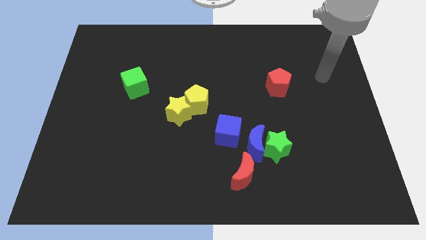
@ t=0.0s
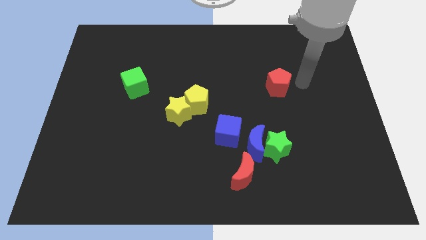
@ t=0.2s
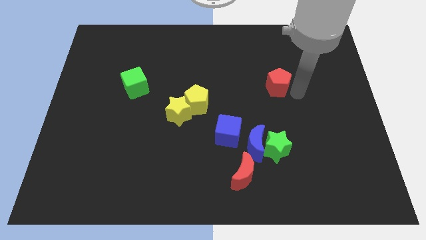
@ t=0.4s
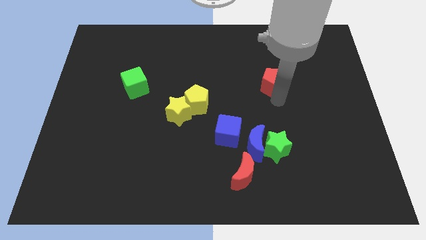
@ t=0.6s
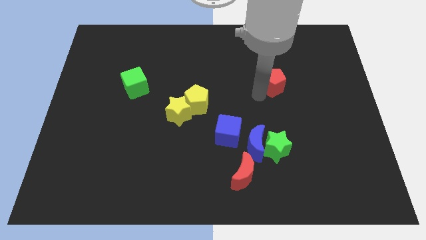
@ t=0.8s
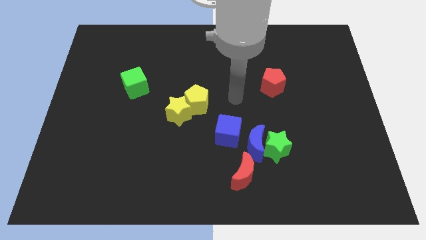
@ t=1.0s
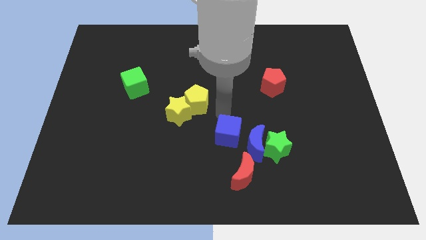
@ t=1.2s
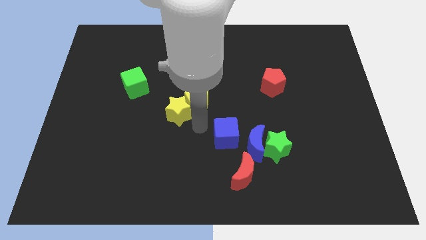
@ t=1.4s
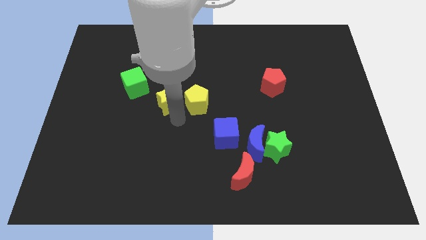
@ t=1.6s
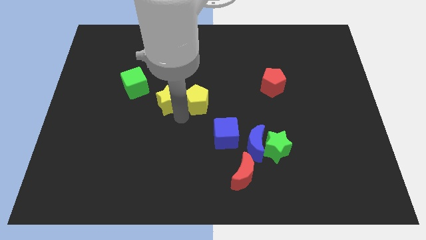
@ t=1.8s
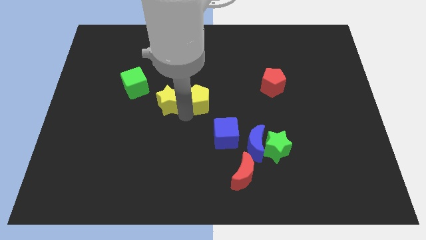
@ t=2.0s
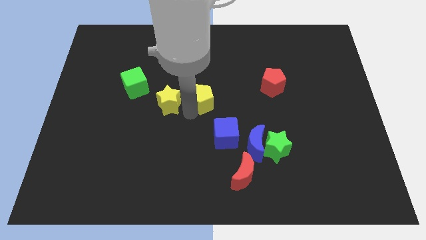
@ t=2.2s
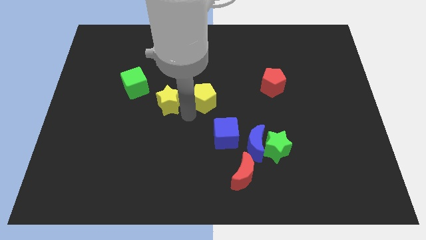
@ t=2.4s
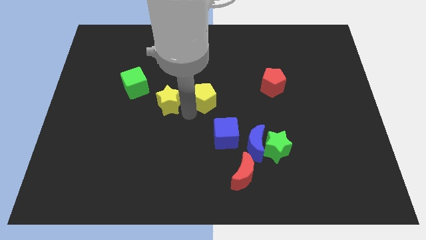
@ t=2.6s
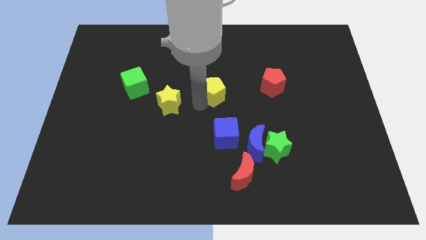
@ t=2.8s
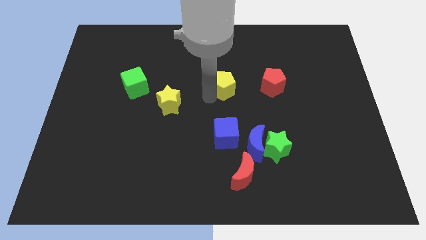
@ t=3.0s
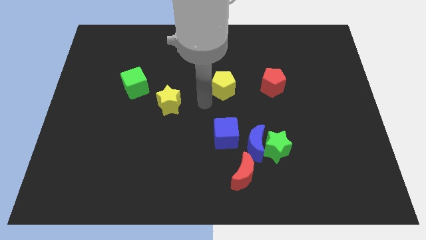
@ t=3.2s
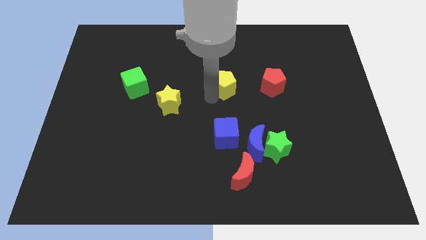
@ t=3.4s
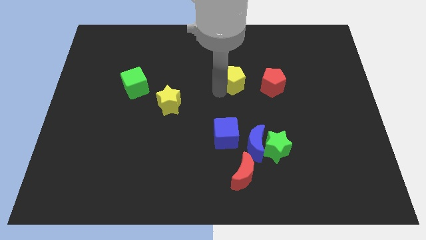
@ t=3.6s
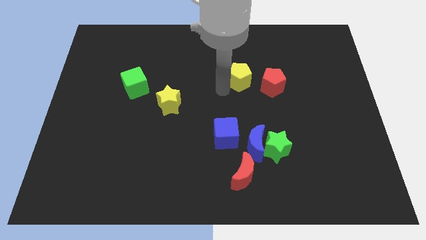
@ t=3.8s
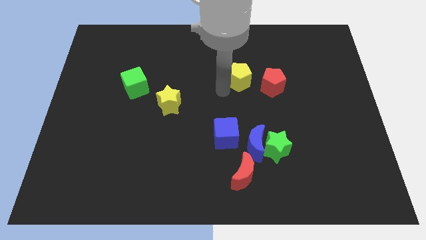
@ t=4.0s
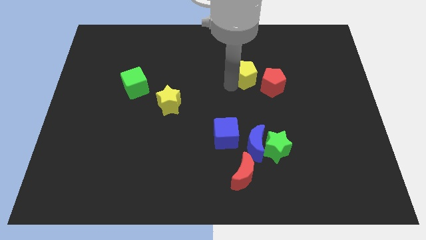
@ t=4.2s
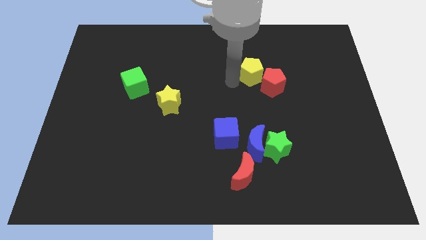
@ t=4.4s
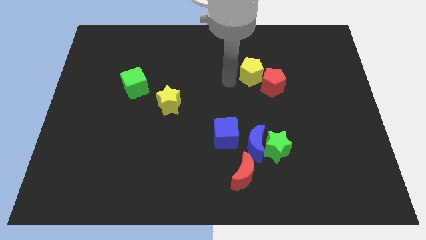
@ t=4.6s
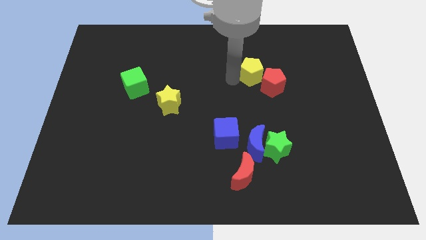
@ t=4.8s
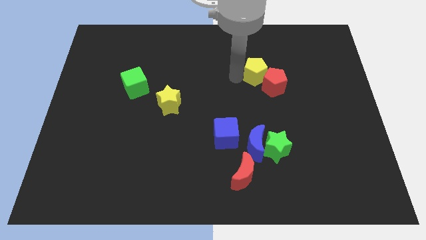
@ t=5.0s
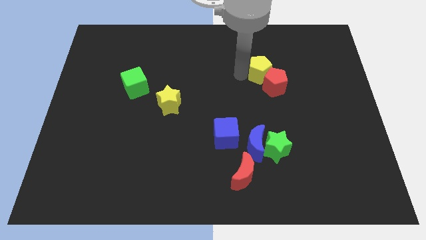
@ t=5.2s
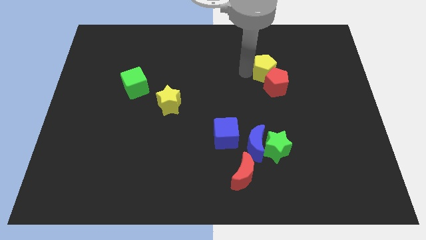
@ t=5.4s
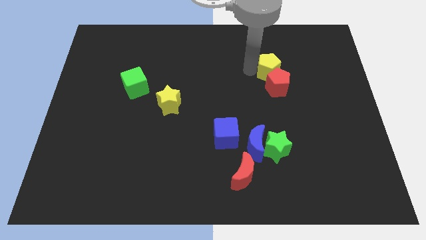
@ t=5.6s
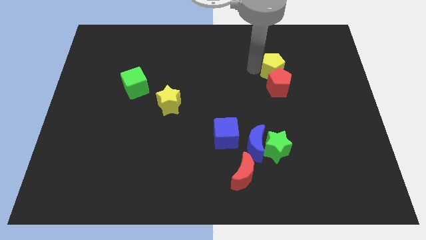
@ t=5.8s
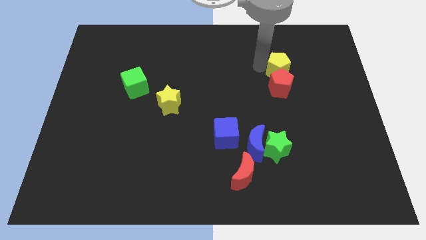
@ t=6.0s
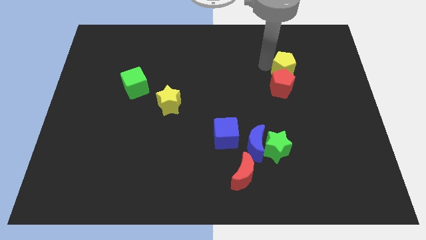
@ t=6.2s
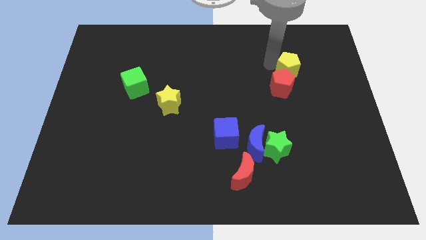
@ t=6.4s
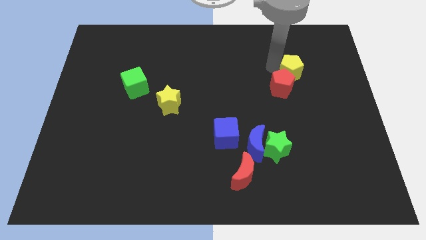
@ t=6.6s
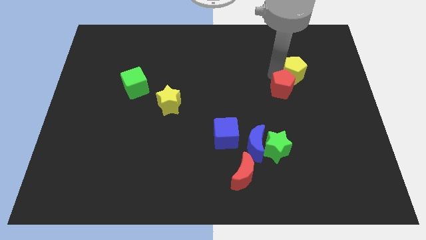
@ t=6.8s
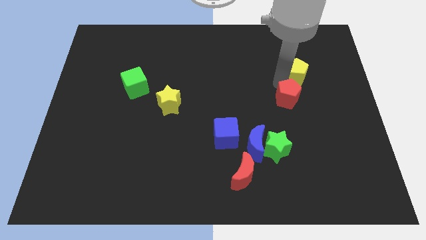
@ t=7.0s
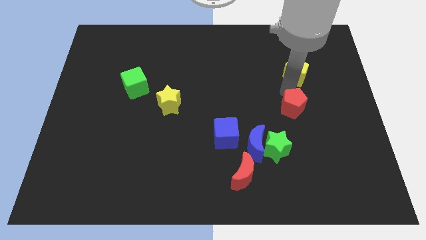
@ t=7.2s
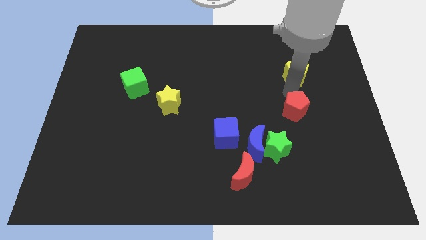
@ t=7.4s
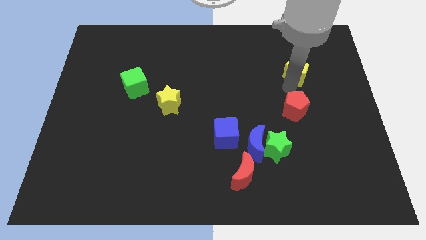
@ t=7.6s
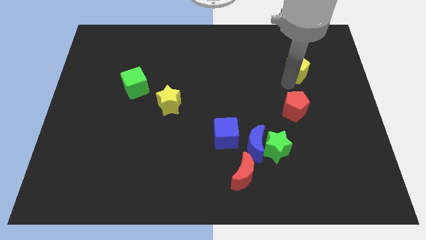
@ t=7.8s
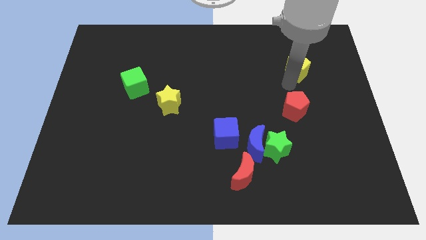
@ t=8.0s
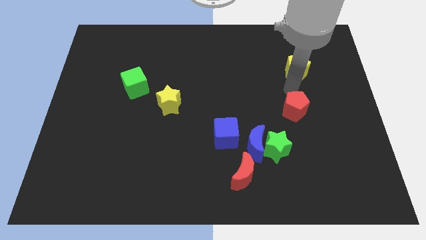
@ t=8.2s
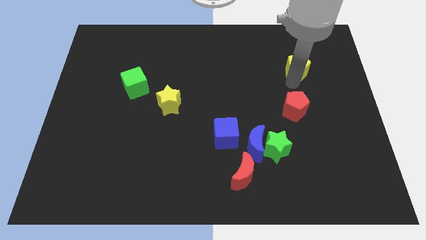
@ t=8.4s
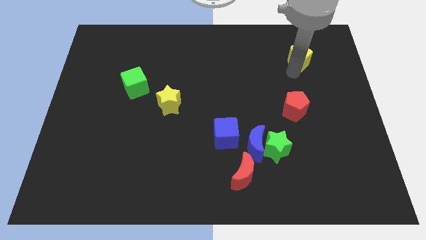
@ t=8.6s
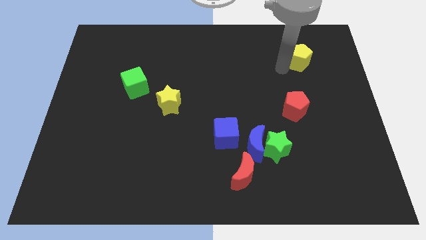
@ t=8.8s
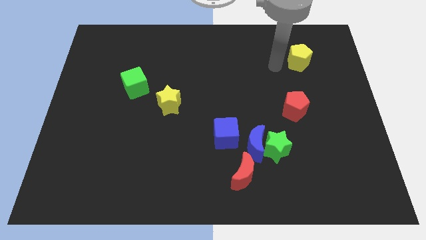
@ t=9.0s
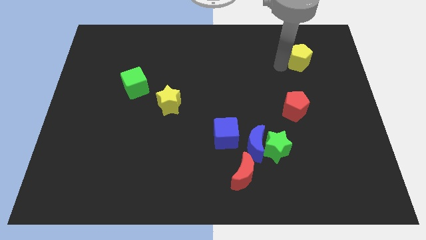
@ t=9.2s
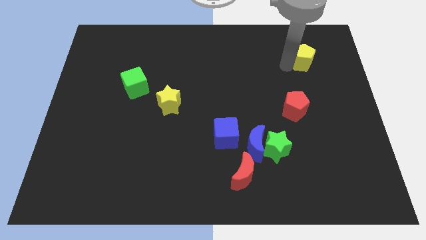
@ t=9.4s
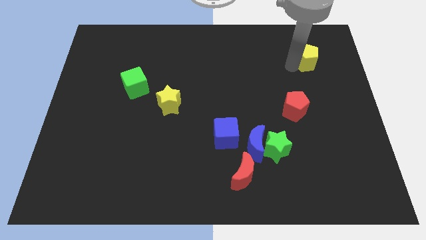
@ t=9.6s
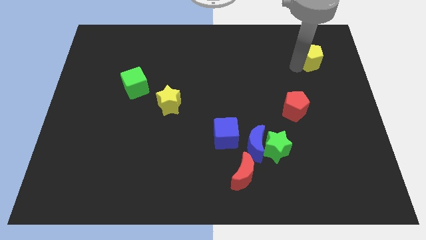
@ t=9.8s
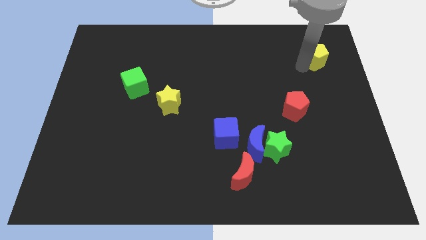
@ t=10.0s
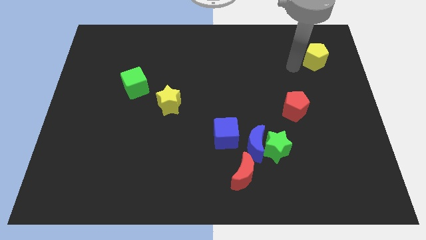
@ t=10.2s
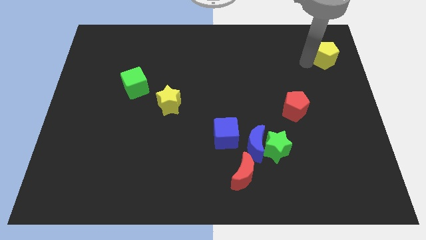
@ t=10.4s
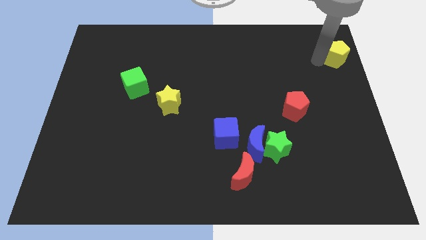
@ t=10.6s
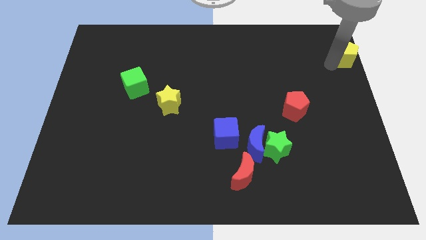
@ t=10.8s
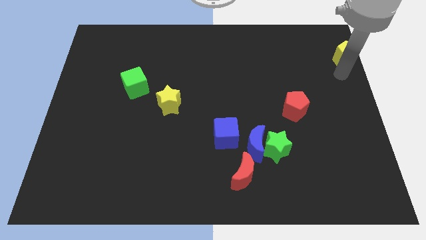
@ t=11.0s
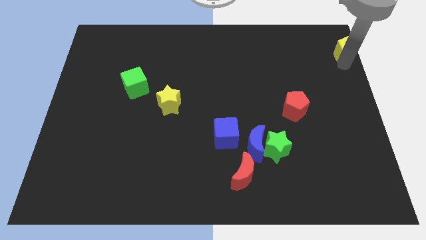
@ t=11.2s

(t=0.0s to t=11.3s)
move the yellow pentagon to the top right corner

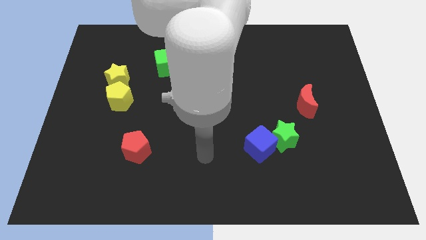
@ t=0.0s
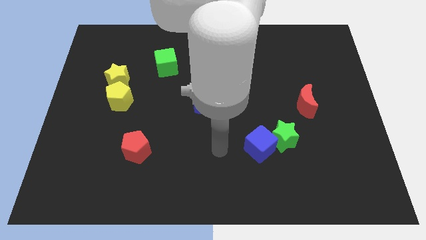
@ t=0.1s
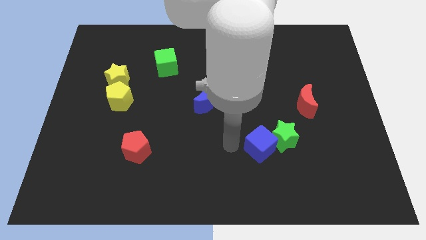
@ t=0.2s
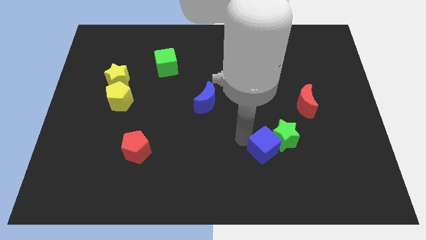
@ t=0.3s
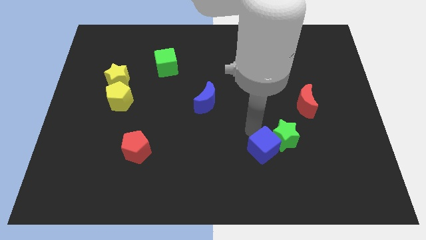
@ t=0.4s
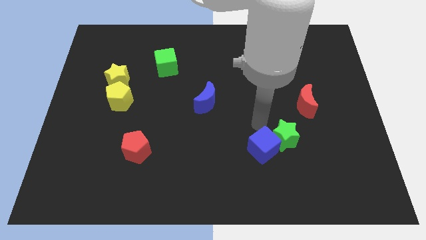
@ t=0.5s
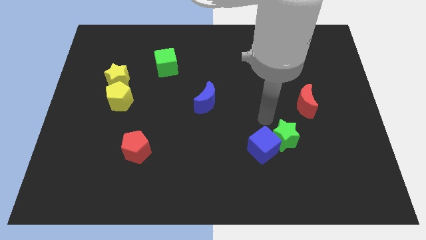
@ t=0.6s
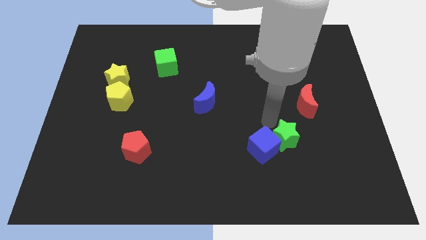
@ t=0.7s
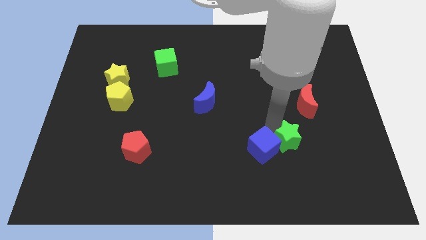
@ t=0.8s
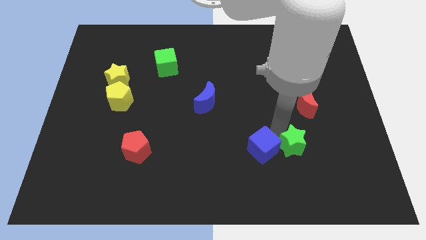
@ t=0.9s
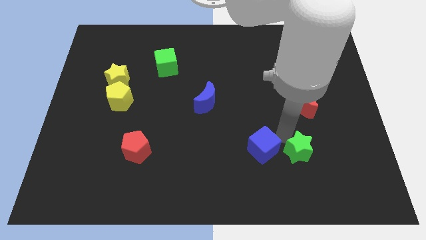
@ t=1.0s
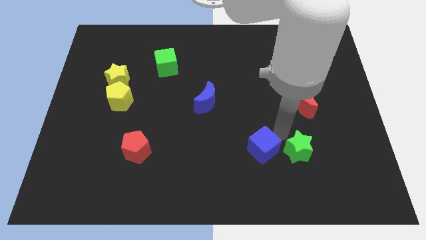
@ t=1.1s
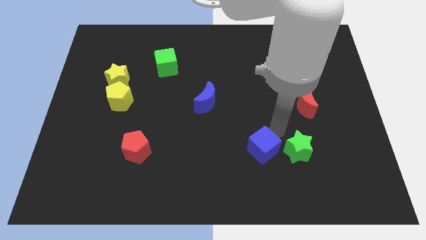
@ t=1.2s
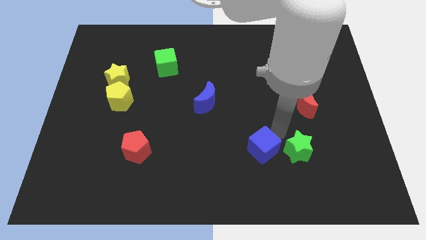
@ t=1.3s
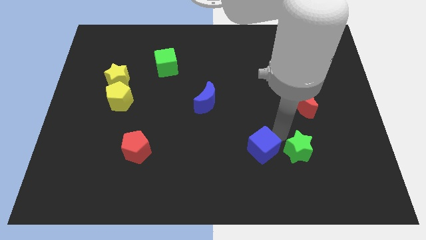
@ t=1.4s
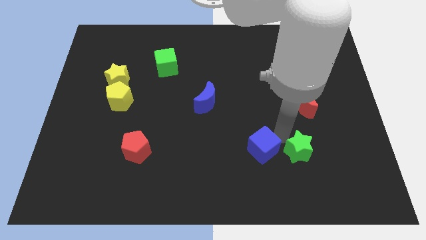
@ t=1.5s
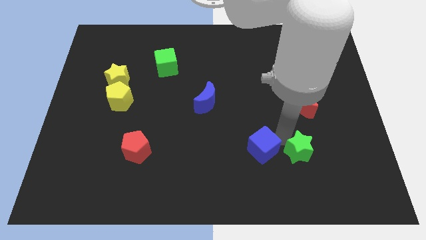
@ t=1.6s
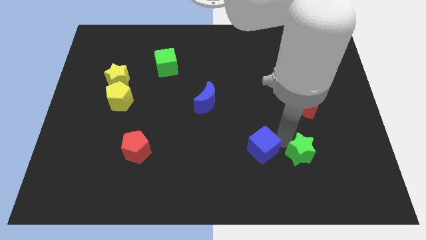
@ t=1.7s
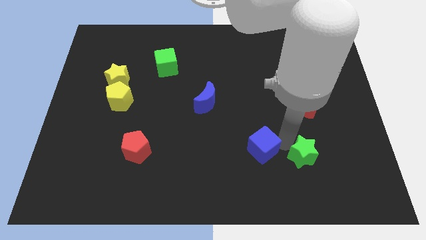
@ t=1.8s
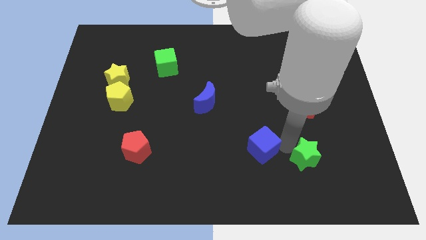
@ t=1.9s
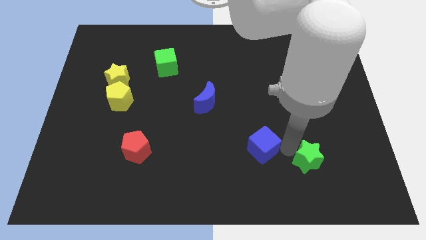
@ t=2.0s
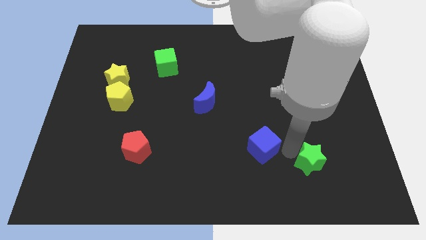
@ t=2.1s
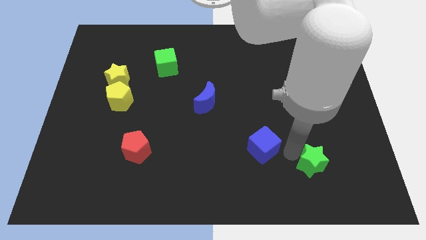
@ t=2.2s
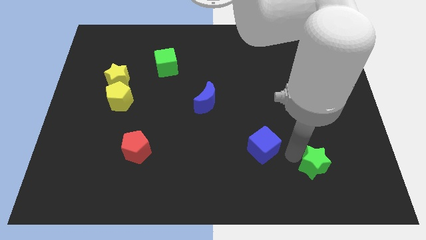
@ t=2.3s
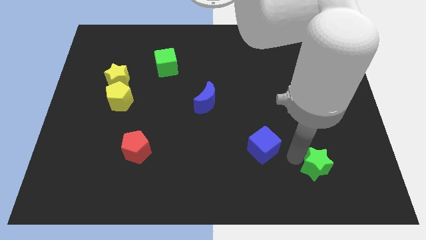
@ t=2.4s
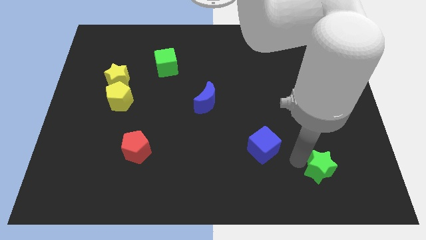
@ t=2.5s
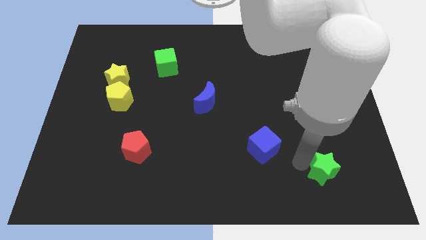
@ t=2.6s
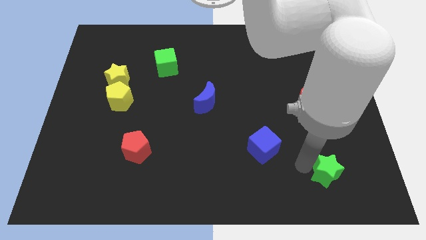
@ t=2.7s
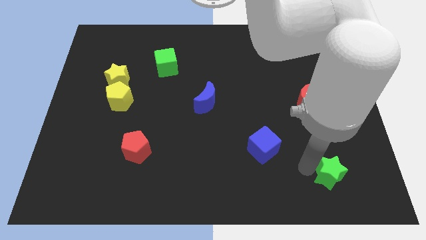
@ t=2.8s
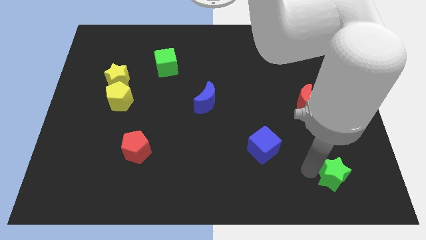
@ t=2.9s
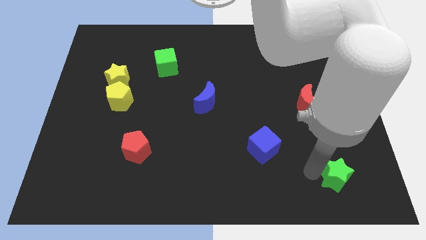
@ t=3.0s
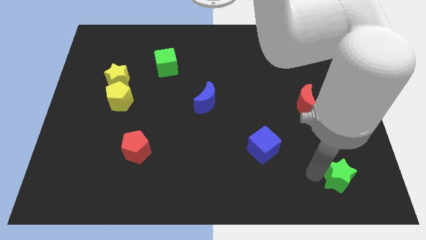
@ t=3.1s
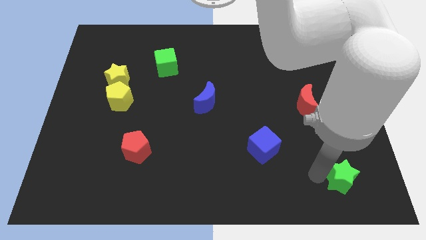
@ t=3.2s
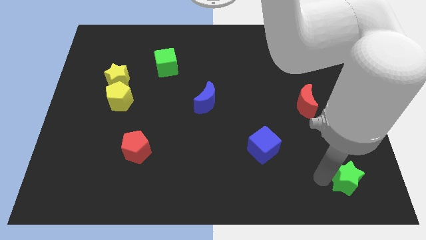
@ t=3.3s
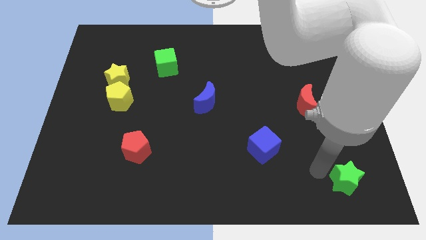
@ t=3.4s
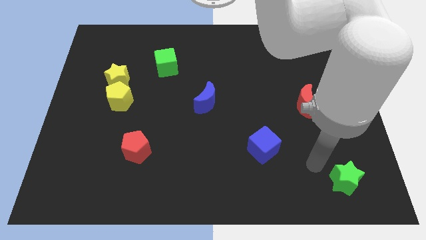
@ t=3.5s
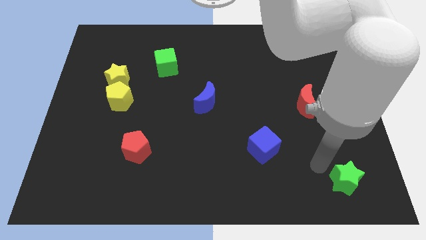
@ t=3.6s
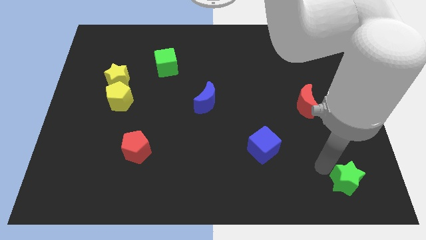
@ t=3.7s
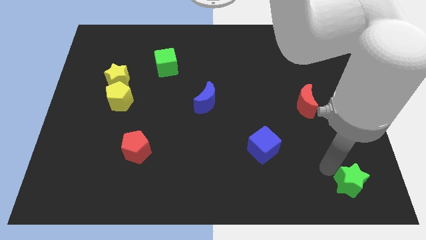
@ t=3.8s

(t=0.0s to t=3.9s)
slide the green star to the bottom right
